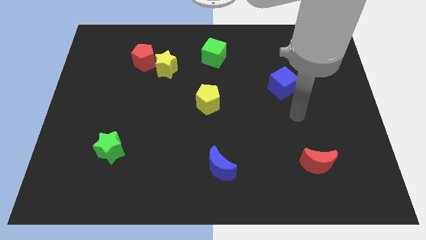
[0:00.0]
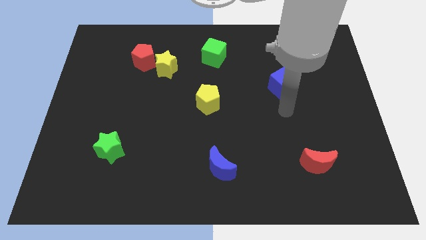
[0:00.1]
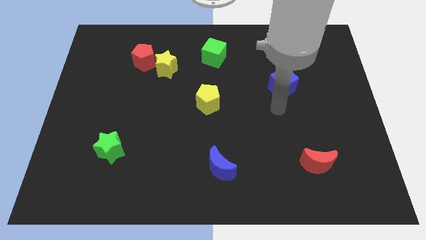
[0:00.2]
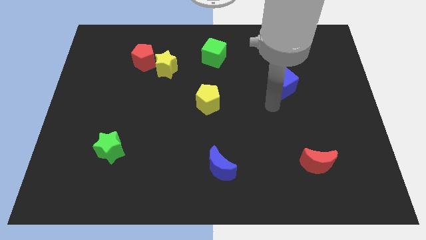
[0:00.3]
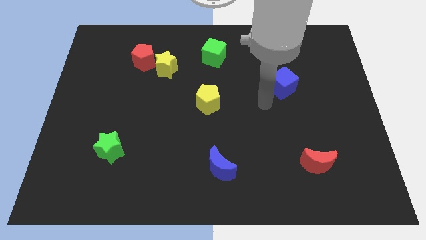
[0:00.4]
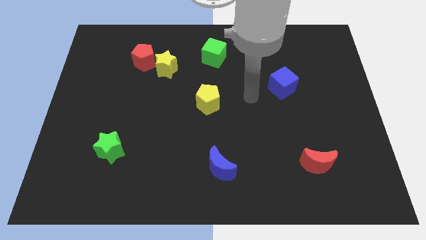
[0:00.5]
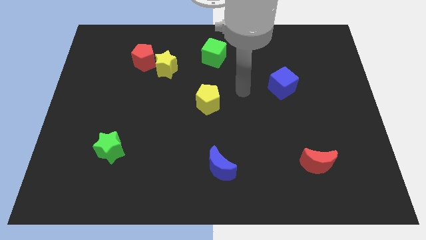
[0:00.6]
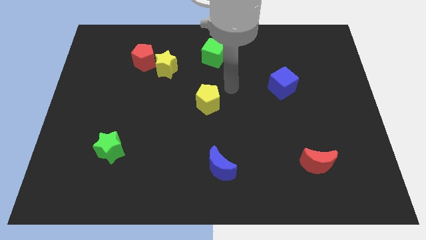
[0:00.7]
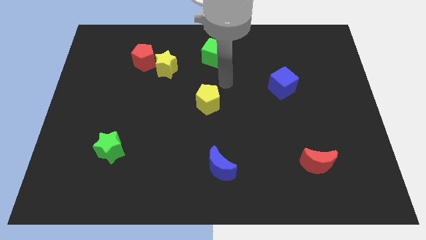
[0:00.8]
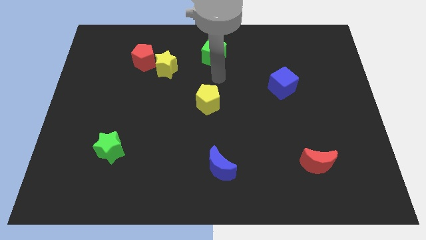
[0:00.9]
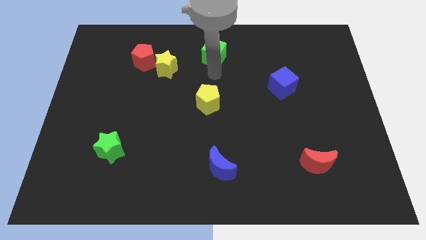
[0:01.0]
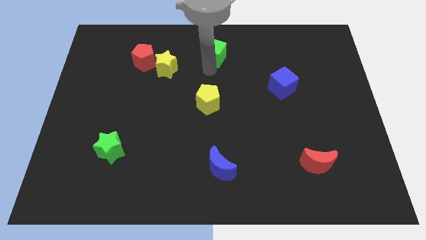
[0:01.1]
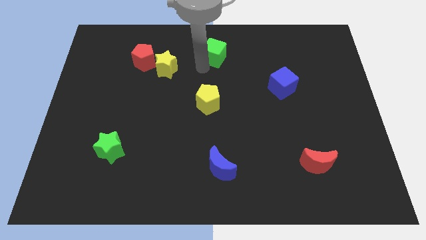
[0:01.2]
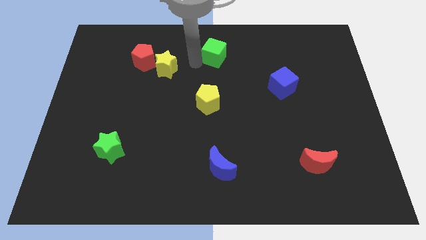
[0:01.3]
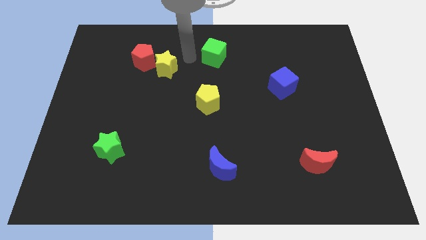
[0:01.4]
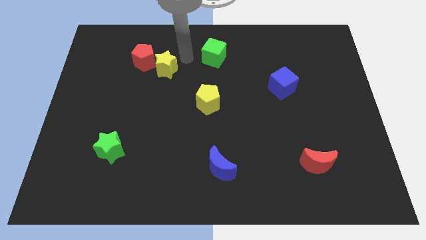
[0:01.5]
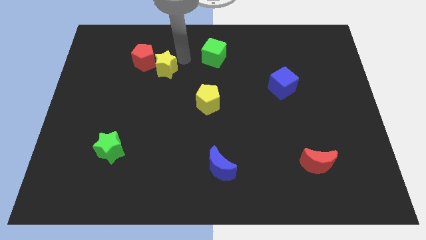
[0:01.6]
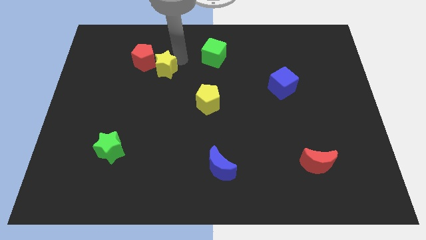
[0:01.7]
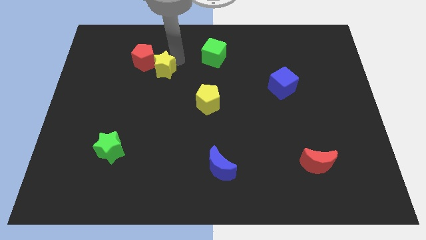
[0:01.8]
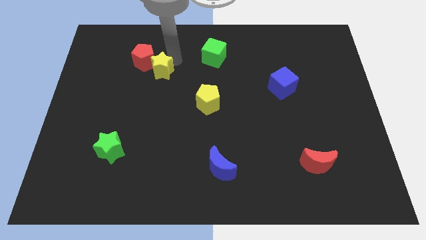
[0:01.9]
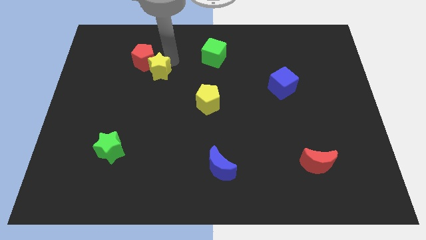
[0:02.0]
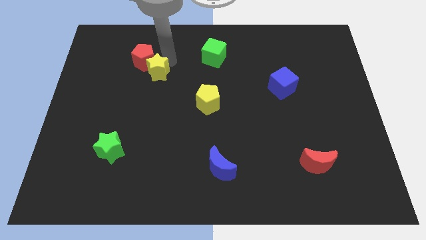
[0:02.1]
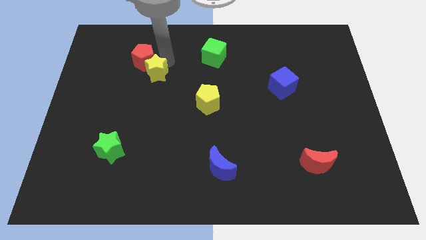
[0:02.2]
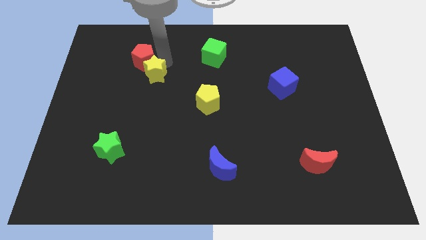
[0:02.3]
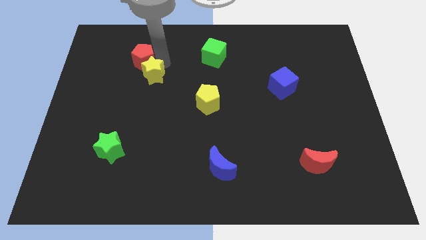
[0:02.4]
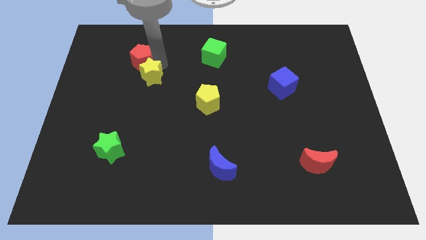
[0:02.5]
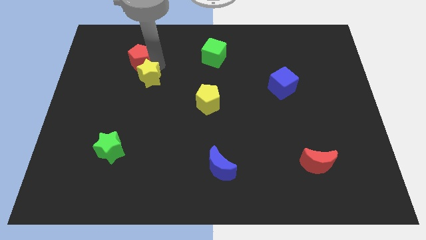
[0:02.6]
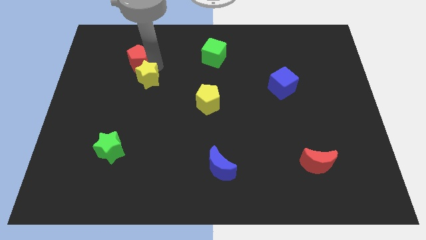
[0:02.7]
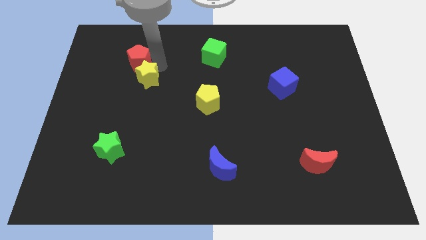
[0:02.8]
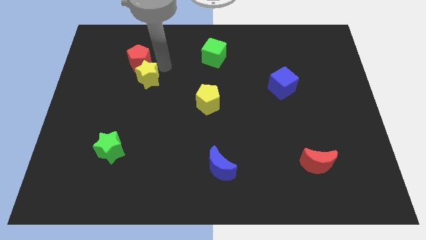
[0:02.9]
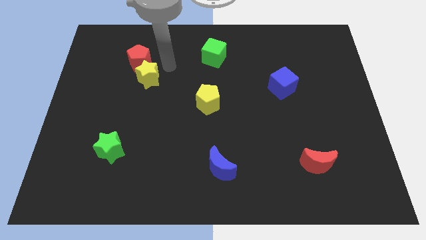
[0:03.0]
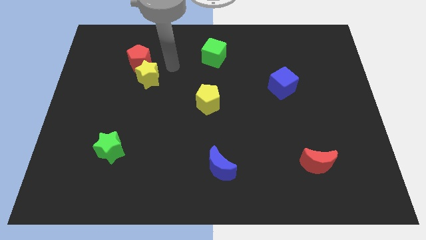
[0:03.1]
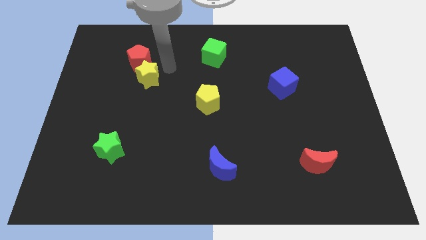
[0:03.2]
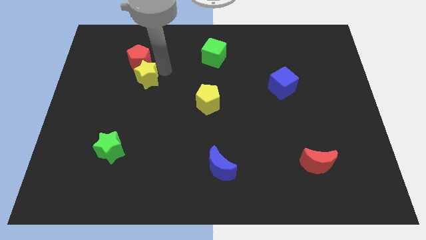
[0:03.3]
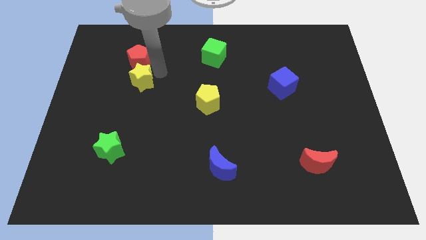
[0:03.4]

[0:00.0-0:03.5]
slightly move the yellow star downwards and to the left

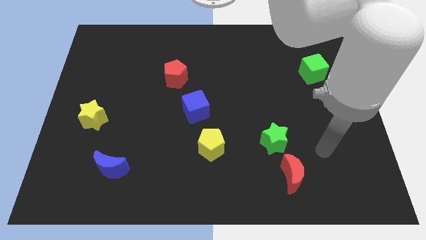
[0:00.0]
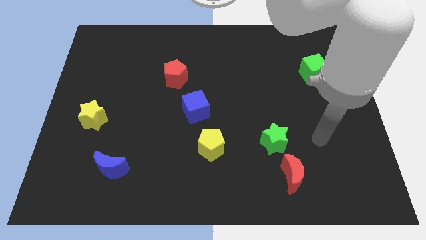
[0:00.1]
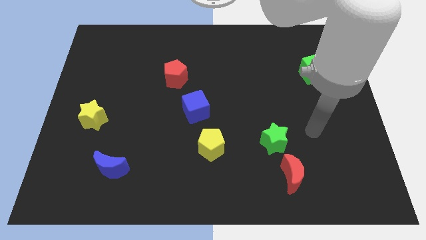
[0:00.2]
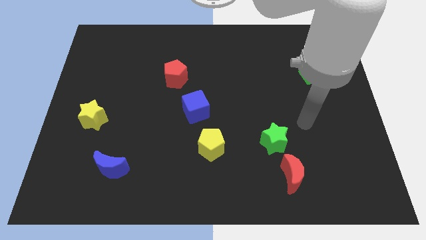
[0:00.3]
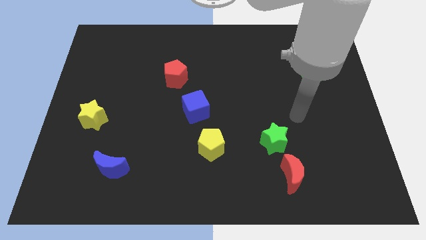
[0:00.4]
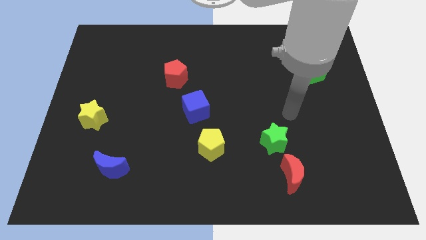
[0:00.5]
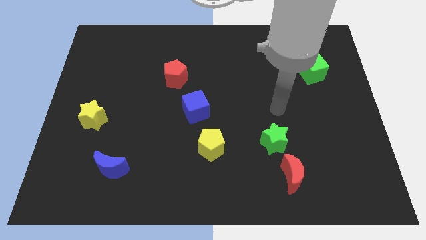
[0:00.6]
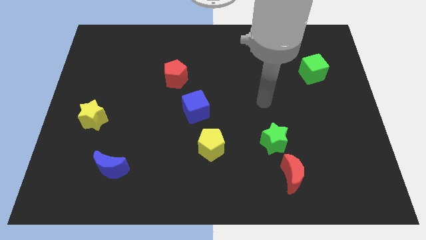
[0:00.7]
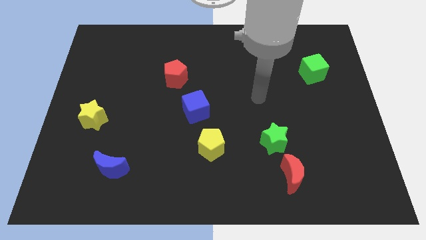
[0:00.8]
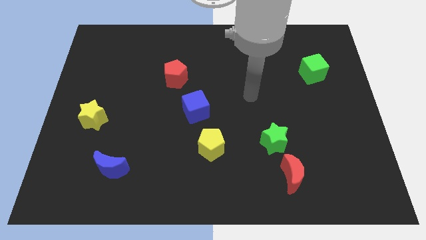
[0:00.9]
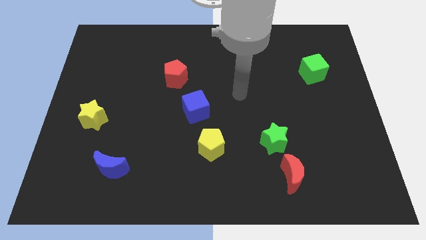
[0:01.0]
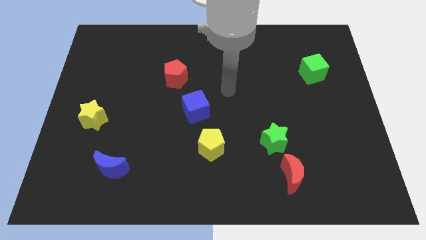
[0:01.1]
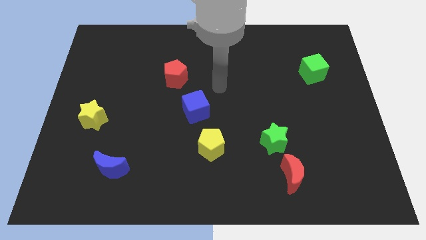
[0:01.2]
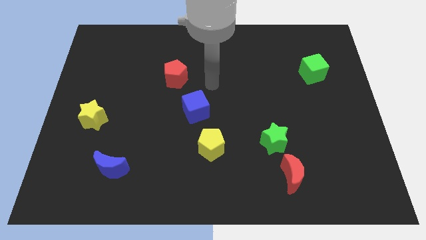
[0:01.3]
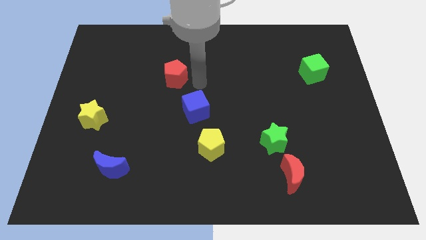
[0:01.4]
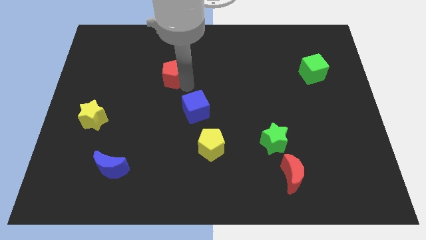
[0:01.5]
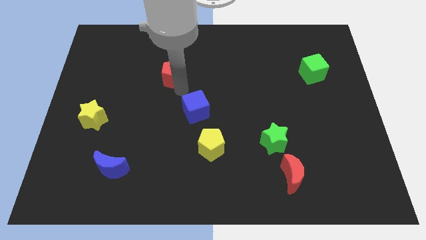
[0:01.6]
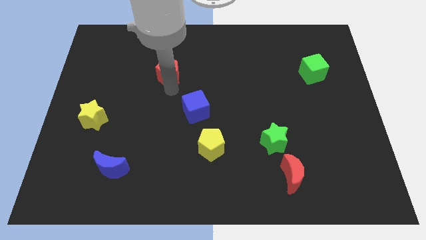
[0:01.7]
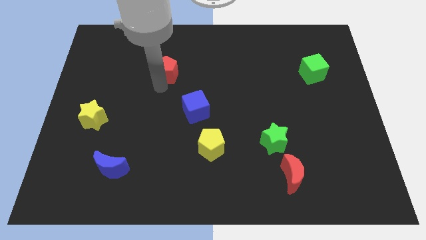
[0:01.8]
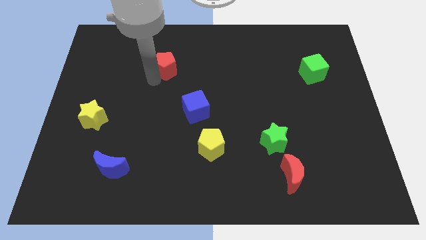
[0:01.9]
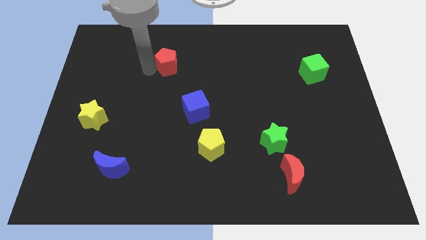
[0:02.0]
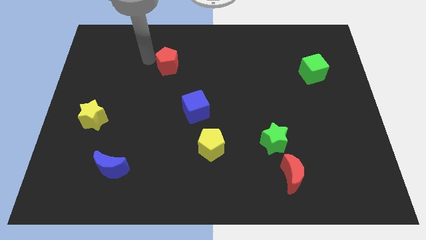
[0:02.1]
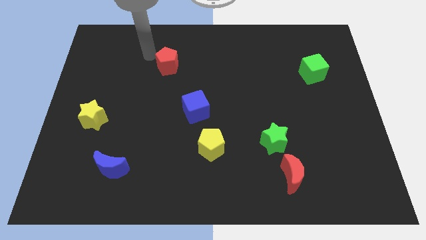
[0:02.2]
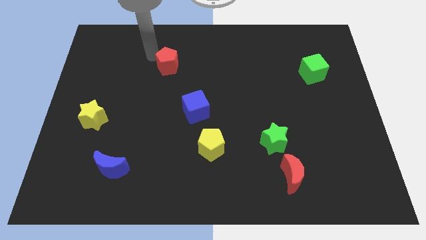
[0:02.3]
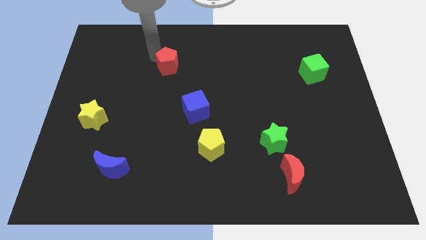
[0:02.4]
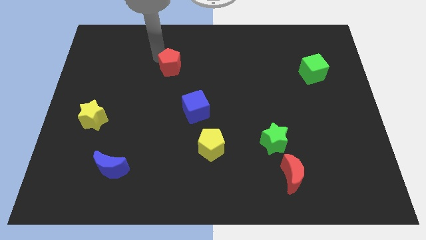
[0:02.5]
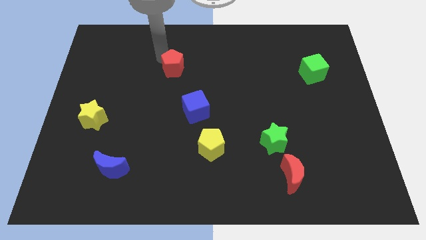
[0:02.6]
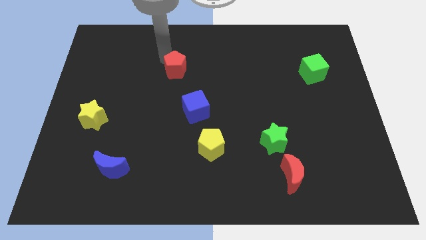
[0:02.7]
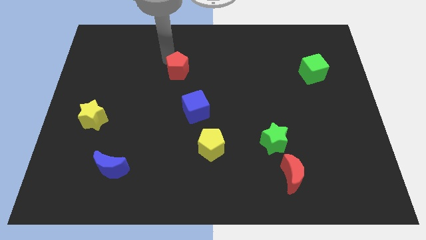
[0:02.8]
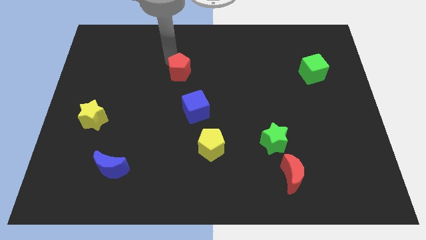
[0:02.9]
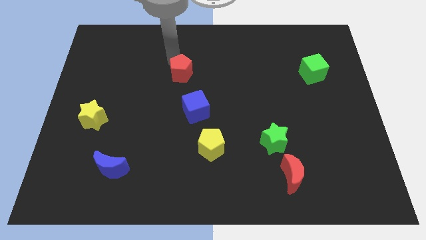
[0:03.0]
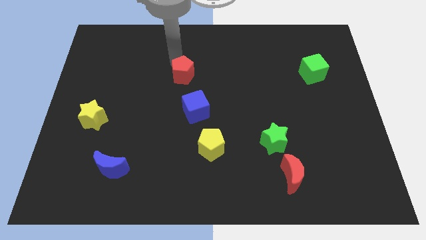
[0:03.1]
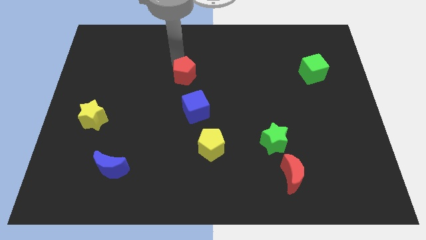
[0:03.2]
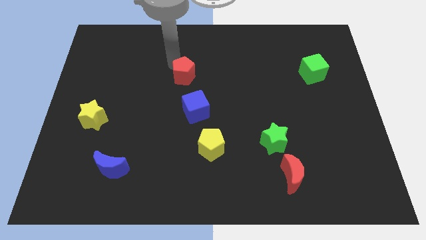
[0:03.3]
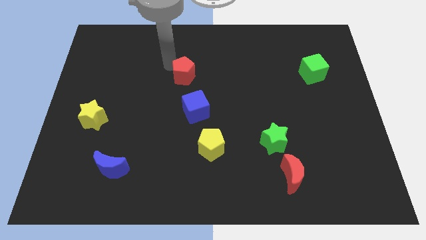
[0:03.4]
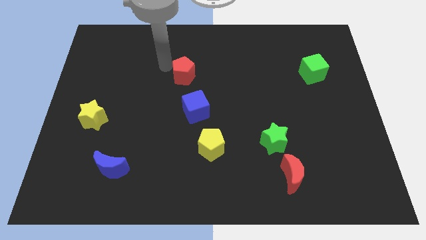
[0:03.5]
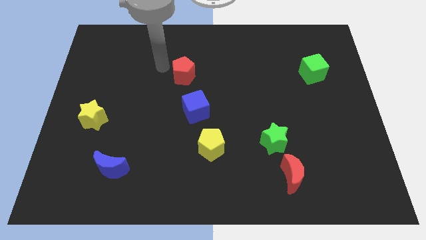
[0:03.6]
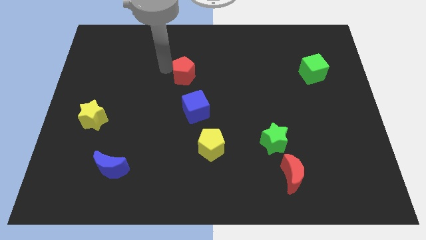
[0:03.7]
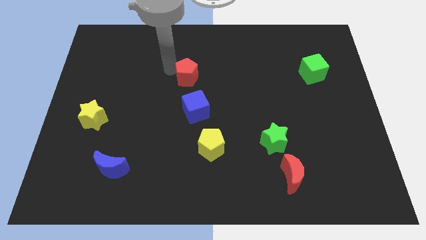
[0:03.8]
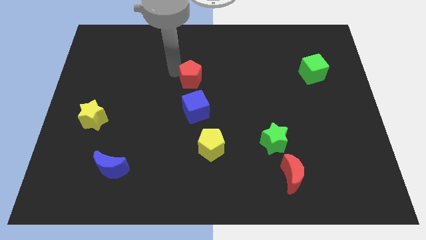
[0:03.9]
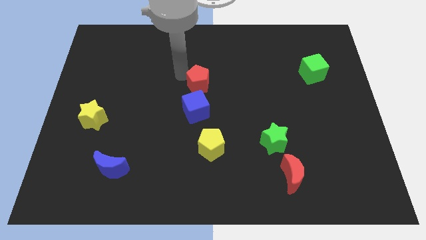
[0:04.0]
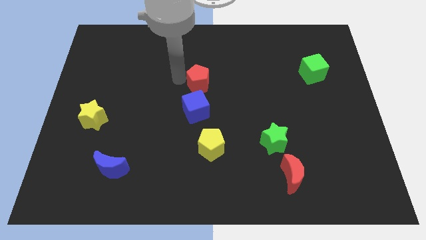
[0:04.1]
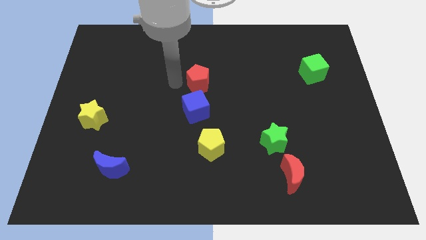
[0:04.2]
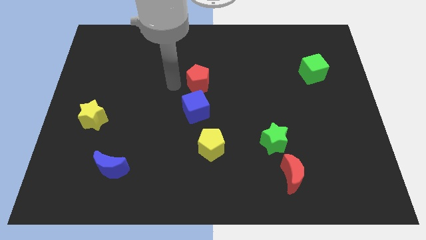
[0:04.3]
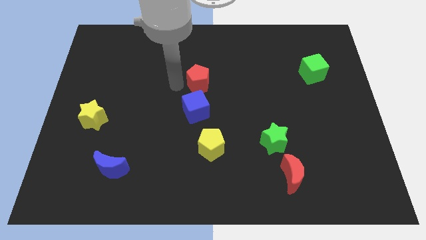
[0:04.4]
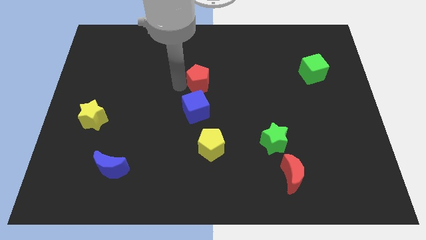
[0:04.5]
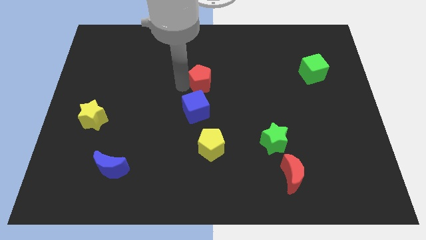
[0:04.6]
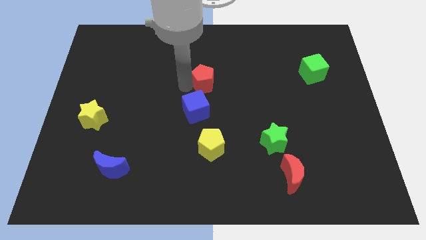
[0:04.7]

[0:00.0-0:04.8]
slightly move the red pentagon to the right
